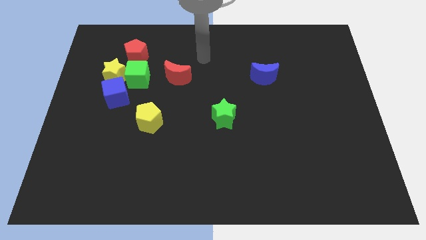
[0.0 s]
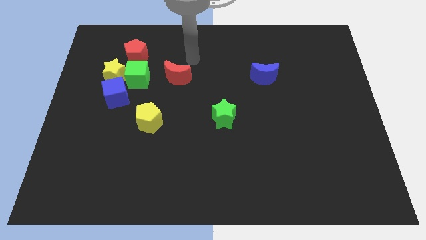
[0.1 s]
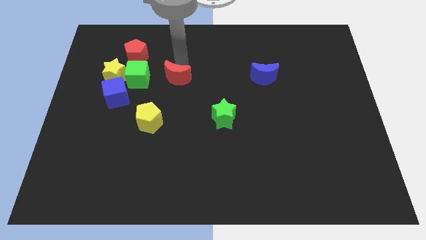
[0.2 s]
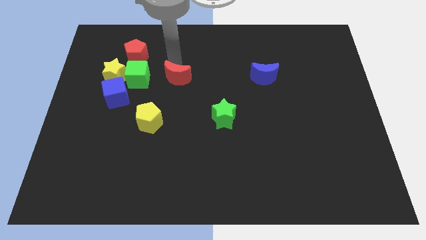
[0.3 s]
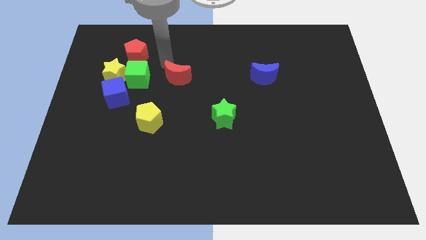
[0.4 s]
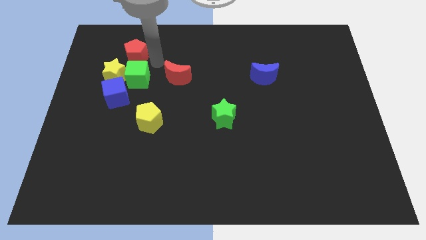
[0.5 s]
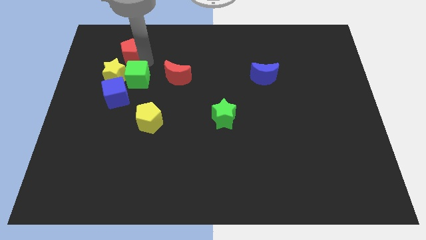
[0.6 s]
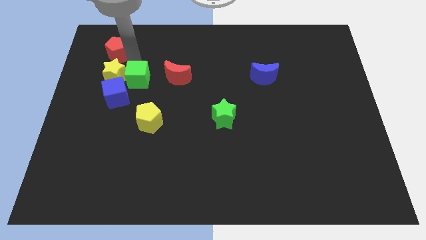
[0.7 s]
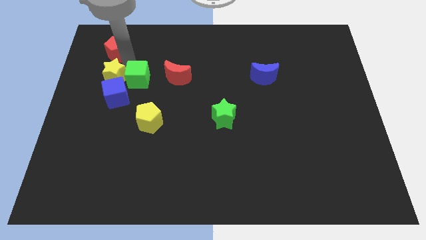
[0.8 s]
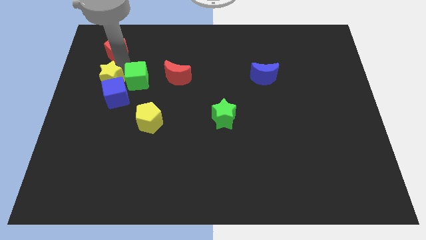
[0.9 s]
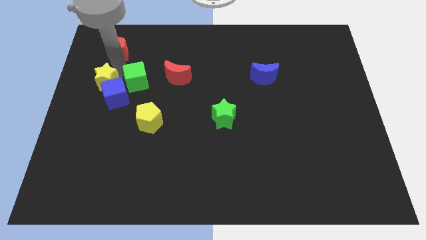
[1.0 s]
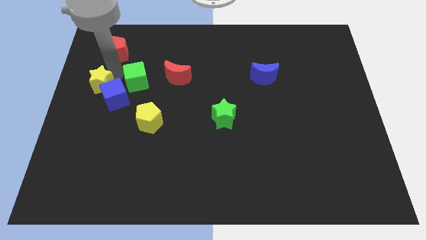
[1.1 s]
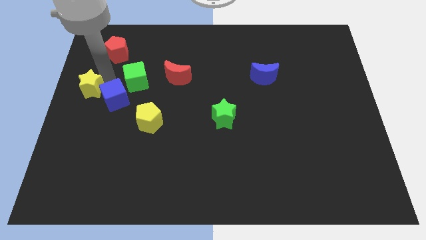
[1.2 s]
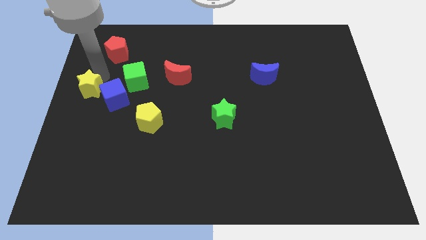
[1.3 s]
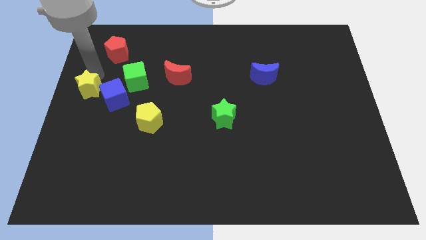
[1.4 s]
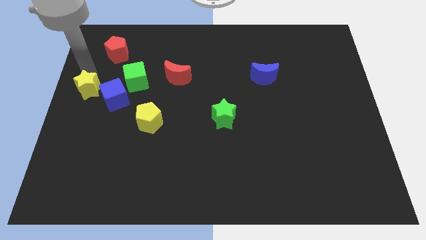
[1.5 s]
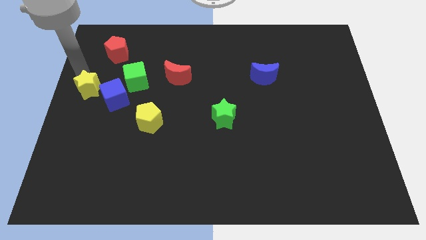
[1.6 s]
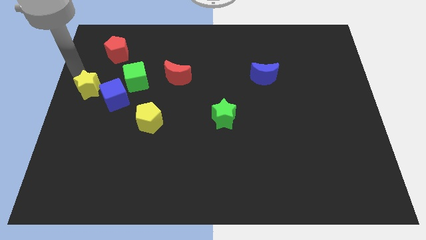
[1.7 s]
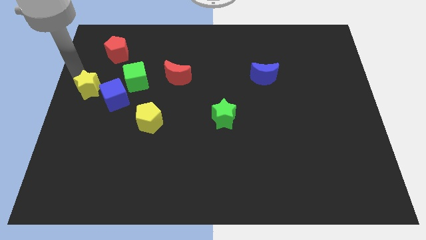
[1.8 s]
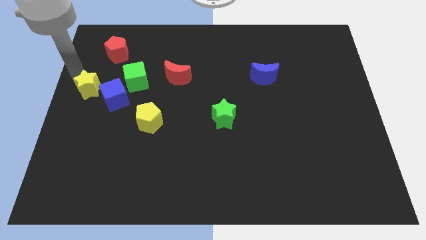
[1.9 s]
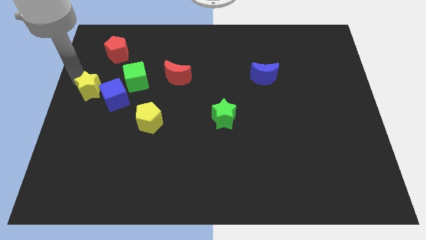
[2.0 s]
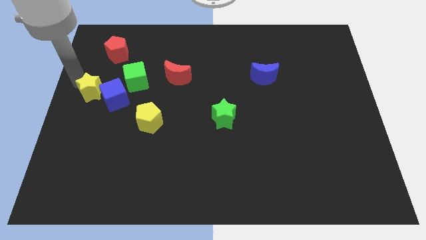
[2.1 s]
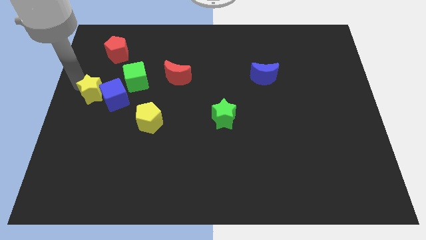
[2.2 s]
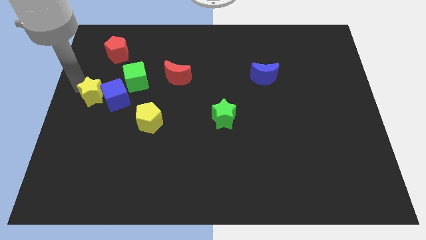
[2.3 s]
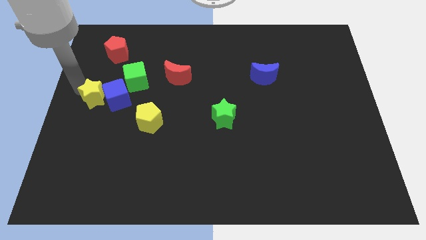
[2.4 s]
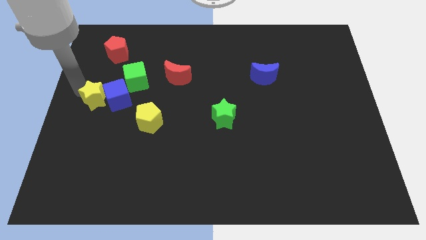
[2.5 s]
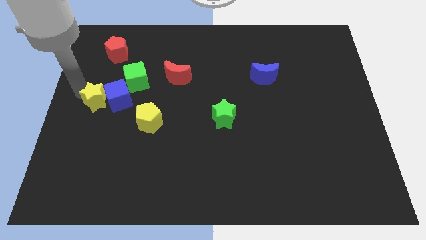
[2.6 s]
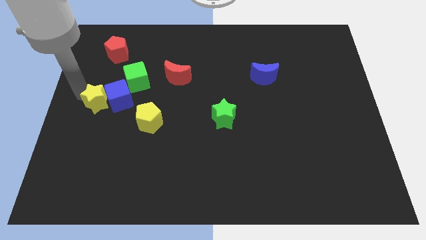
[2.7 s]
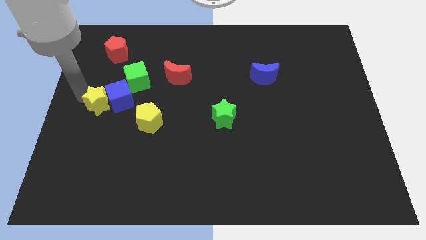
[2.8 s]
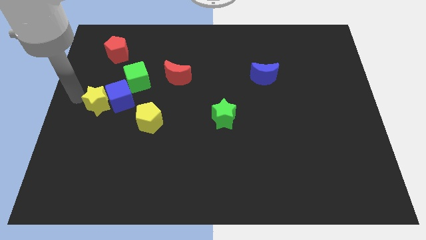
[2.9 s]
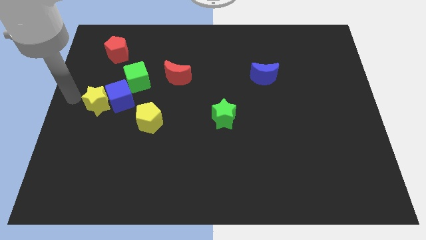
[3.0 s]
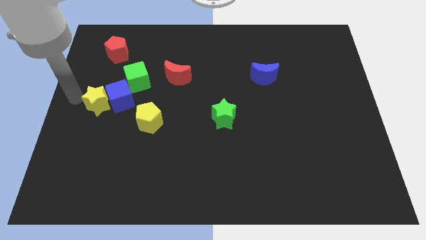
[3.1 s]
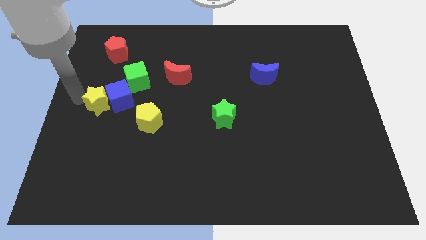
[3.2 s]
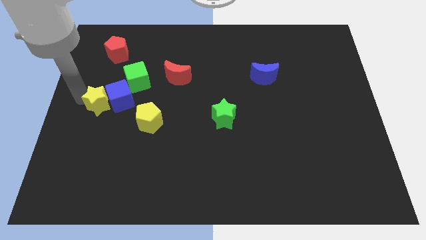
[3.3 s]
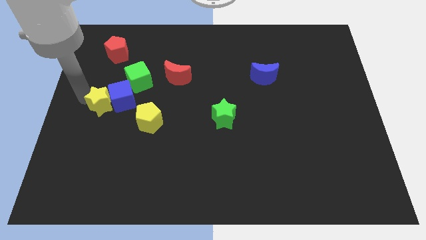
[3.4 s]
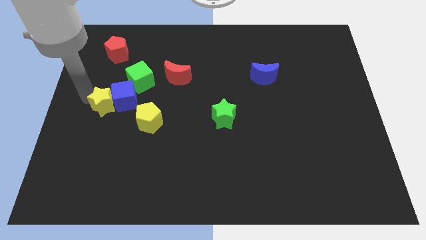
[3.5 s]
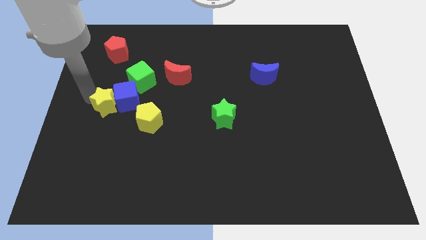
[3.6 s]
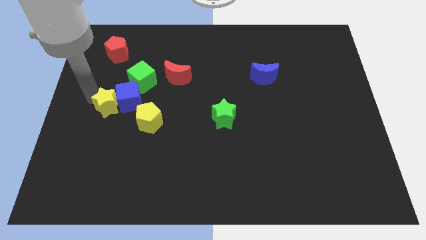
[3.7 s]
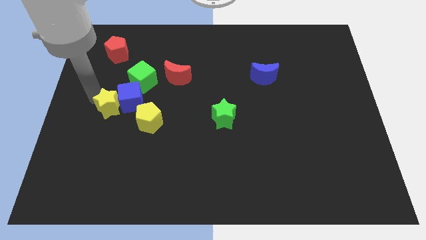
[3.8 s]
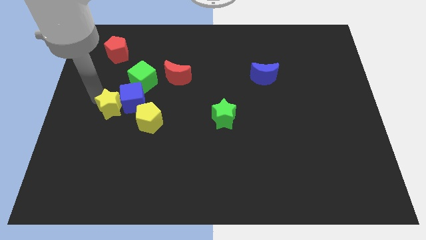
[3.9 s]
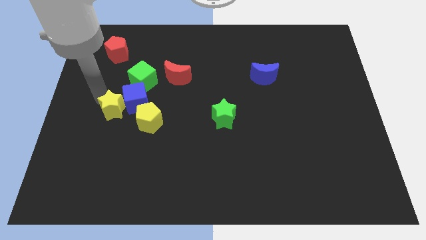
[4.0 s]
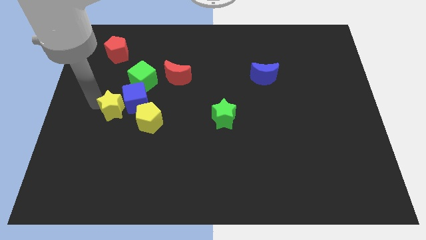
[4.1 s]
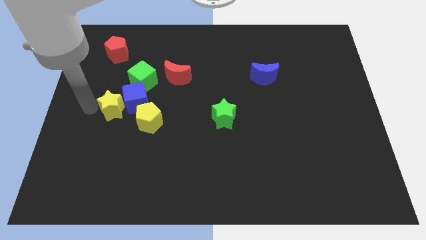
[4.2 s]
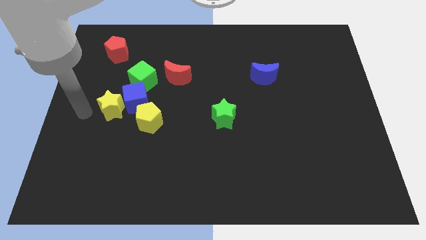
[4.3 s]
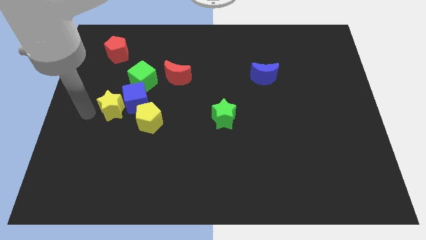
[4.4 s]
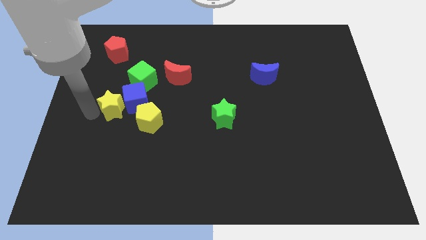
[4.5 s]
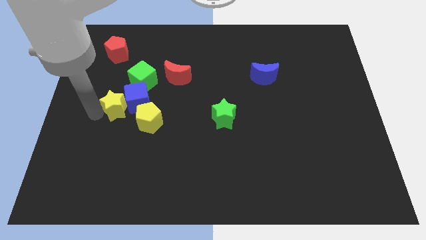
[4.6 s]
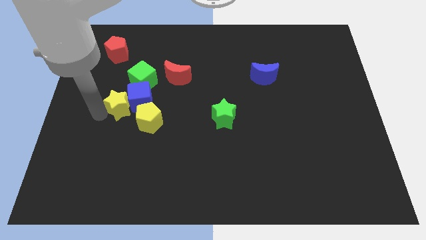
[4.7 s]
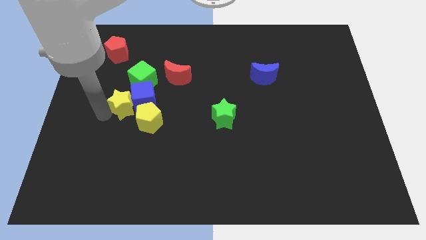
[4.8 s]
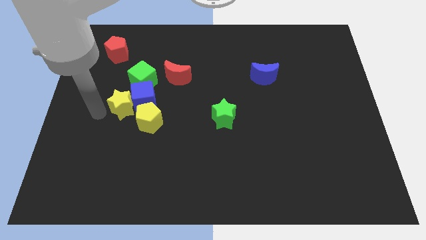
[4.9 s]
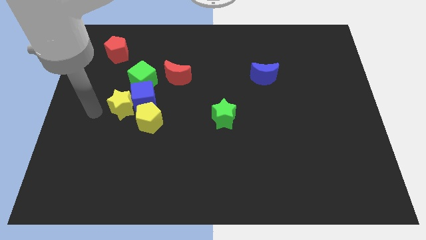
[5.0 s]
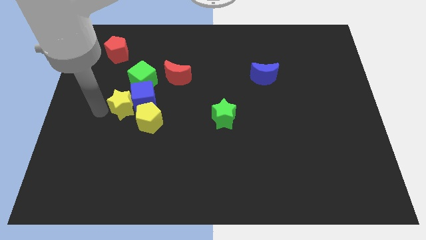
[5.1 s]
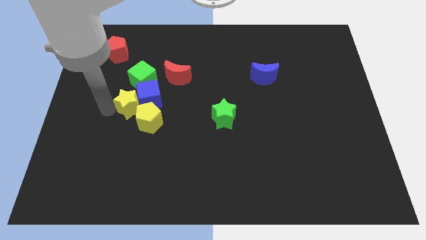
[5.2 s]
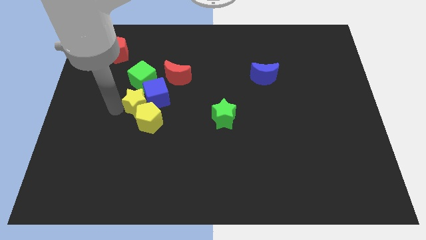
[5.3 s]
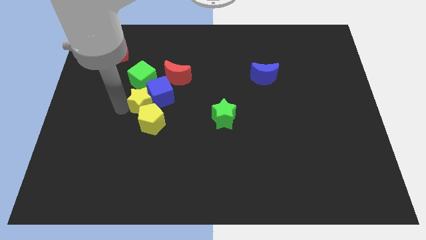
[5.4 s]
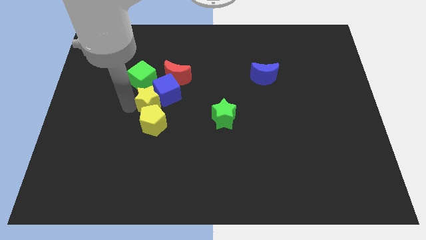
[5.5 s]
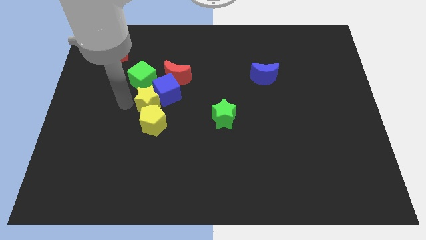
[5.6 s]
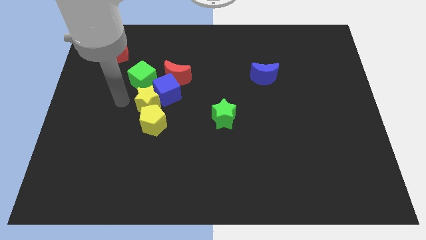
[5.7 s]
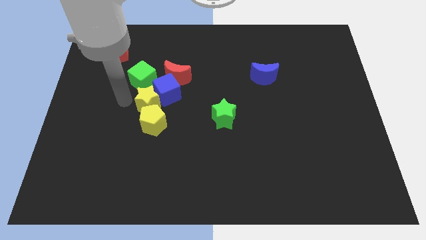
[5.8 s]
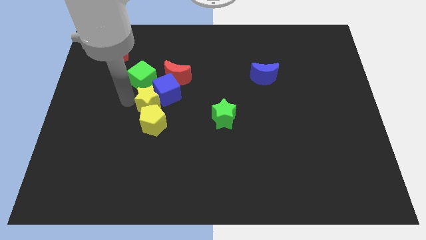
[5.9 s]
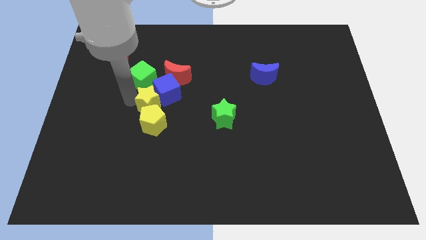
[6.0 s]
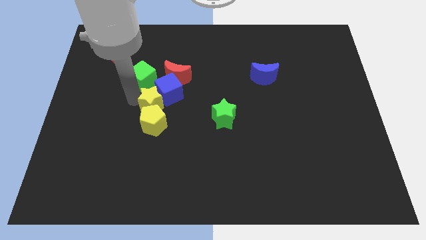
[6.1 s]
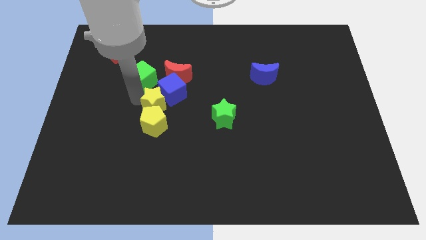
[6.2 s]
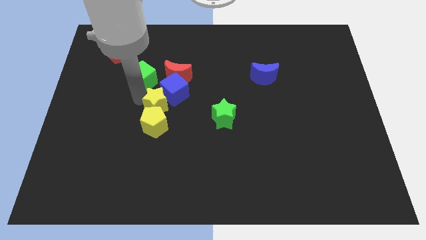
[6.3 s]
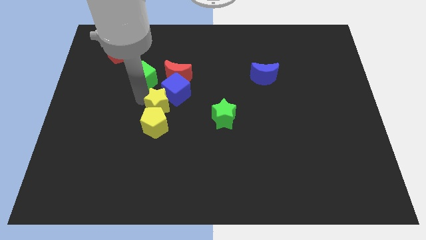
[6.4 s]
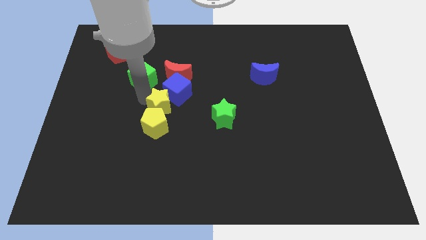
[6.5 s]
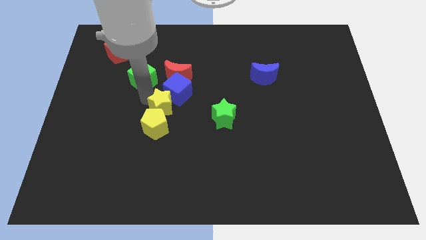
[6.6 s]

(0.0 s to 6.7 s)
move the yellow star left of the green star
